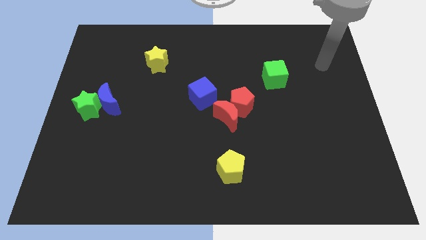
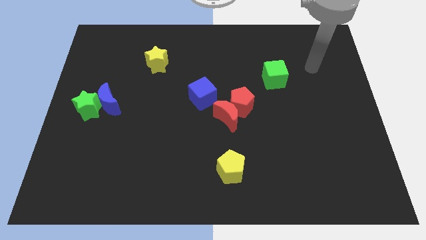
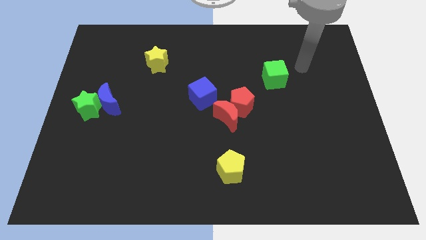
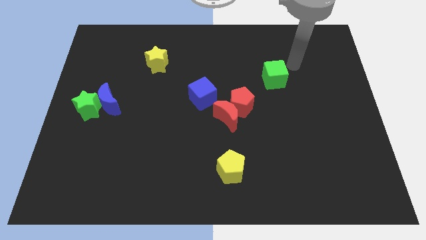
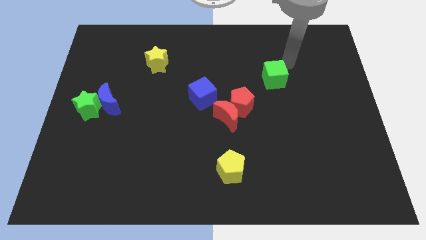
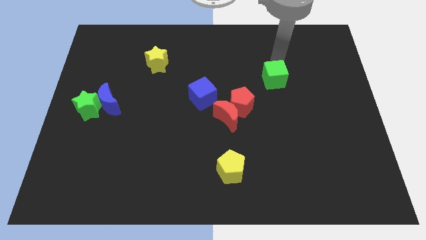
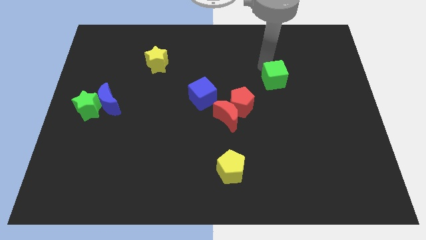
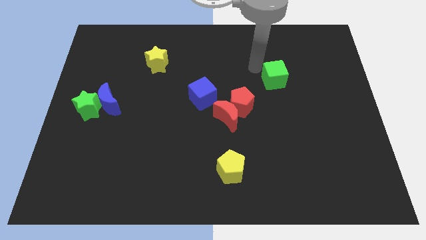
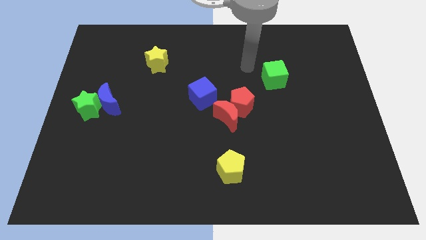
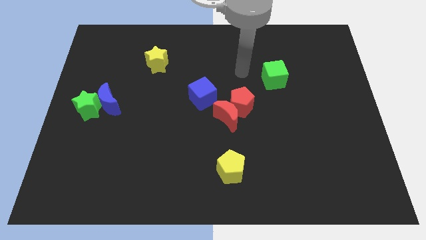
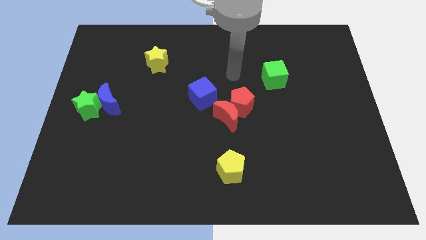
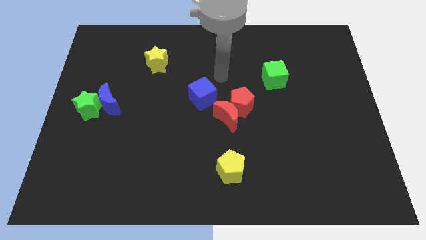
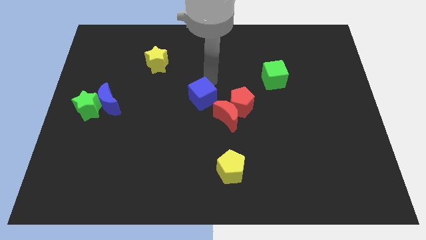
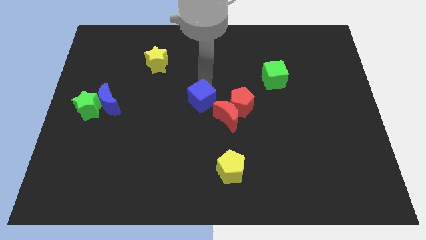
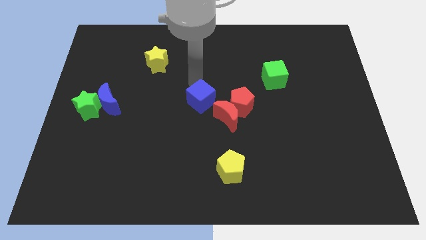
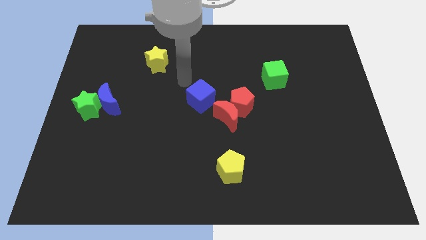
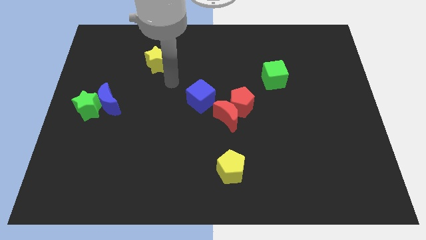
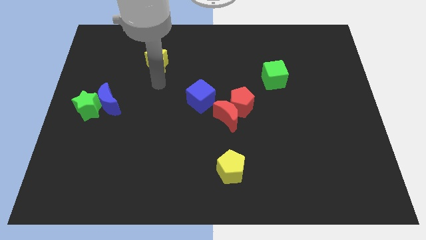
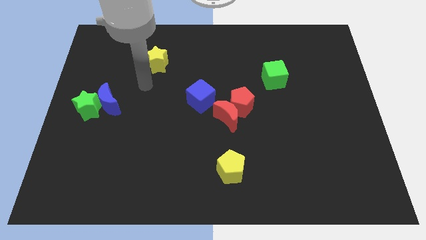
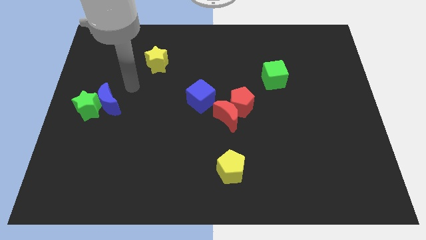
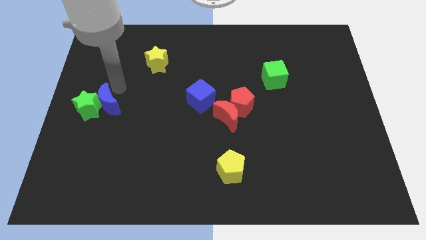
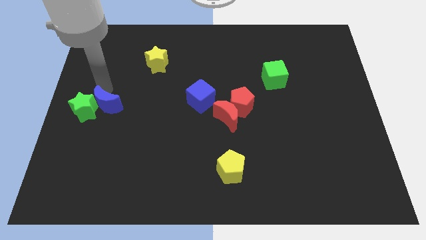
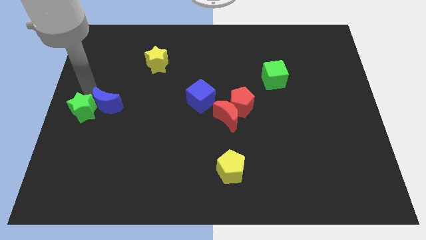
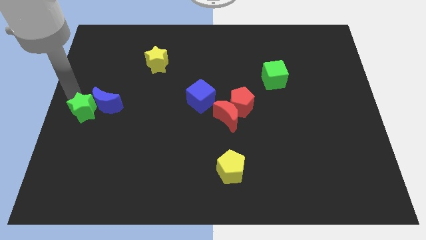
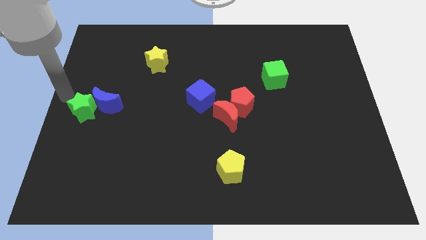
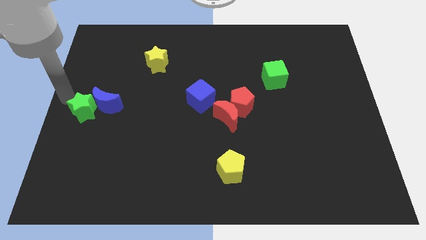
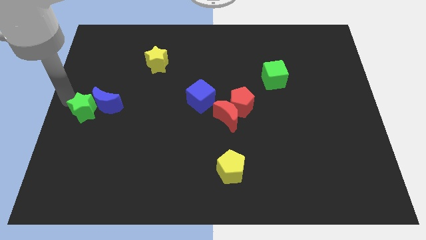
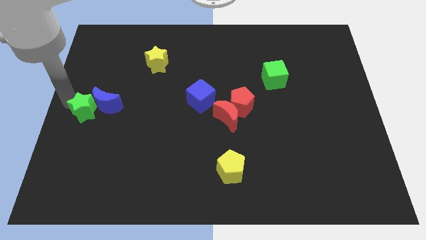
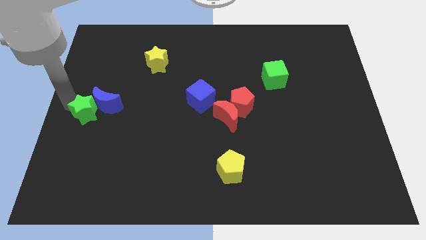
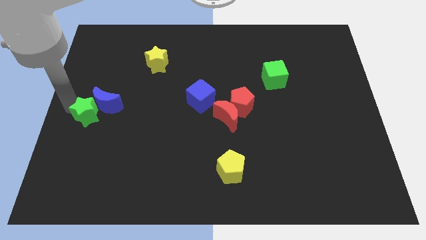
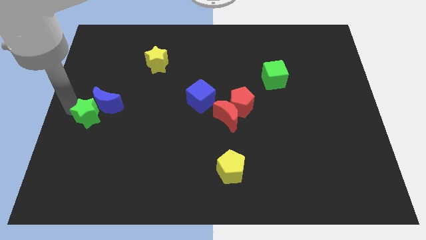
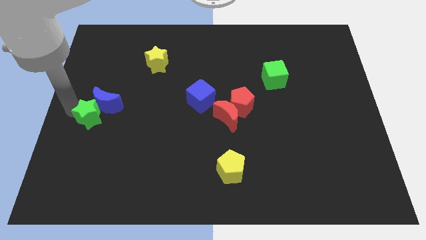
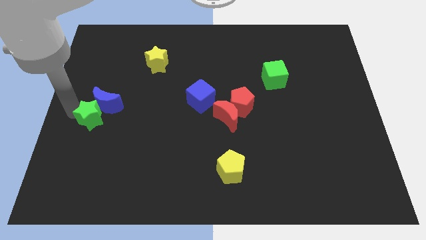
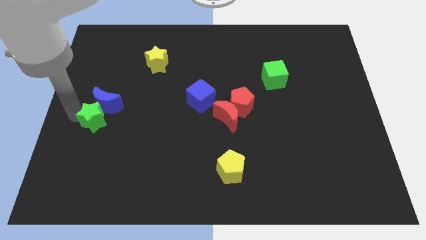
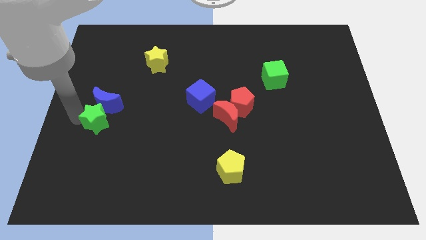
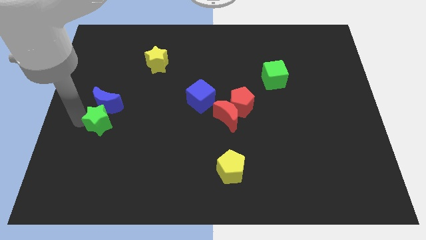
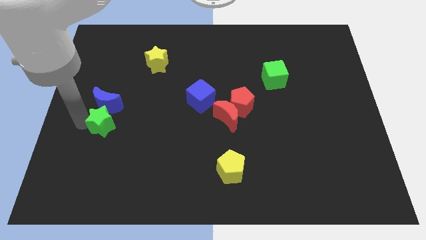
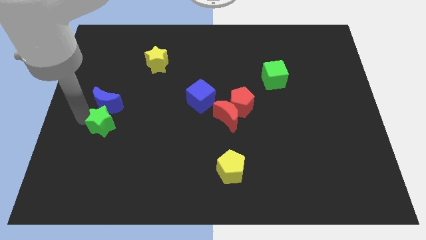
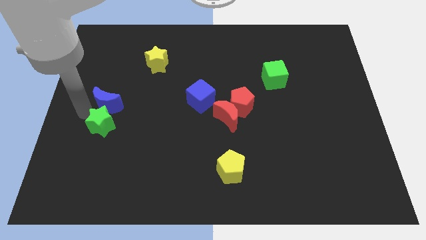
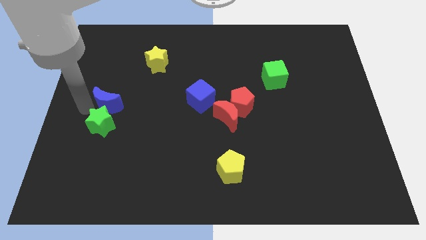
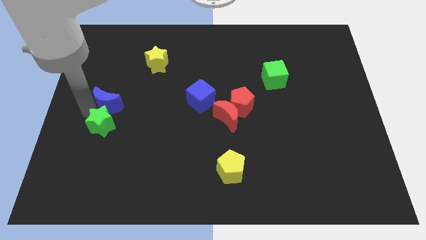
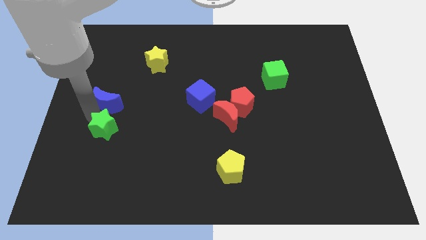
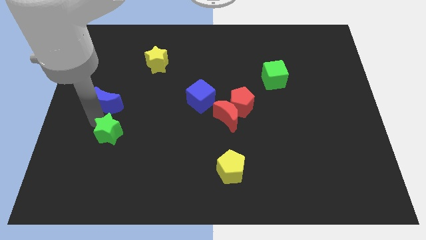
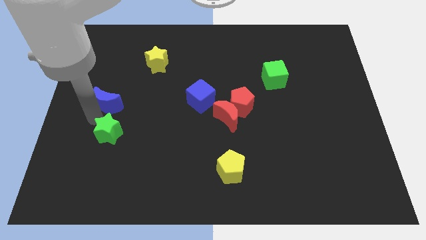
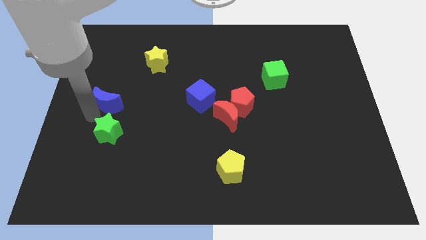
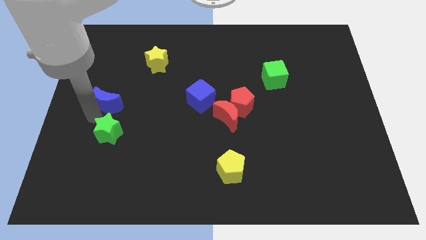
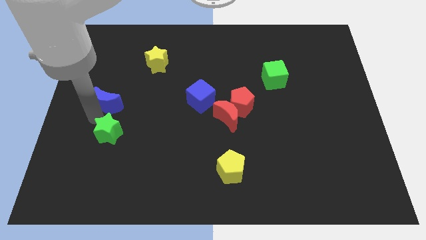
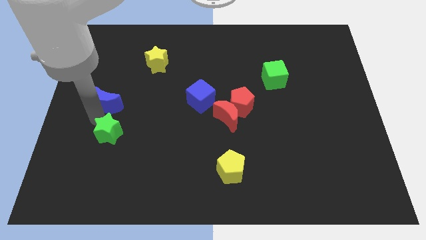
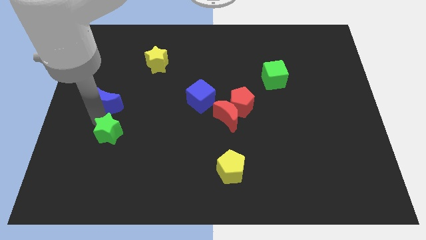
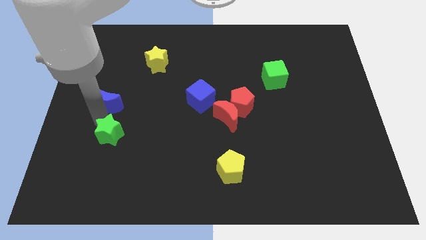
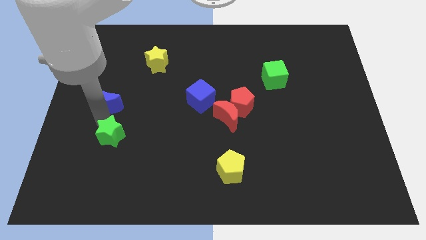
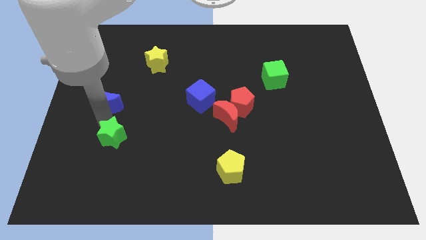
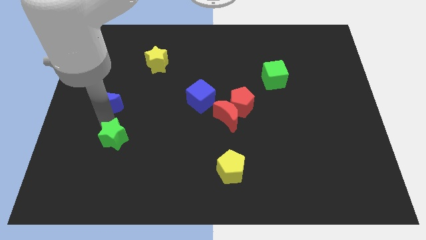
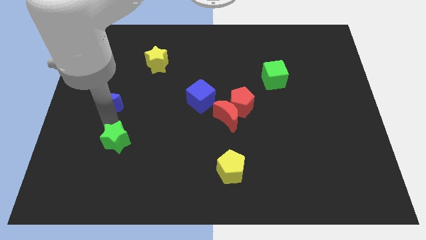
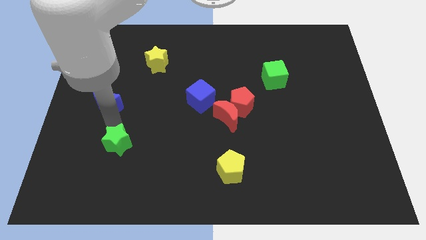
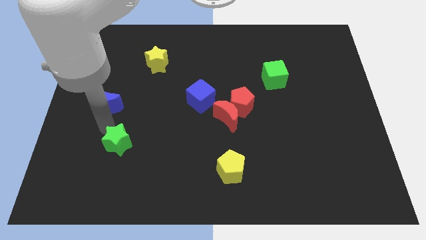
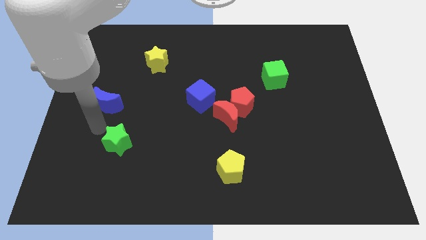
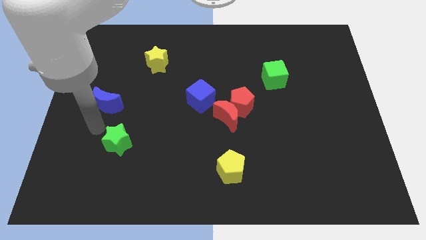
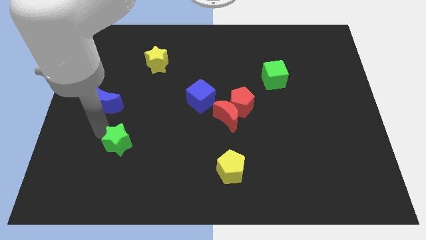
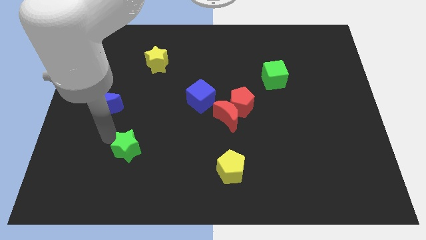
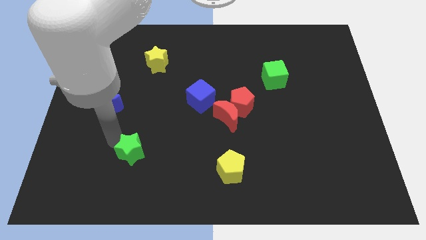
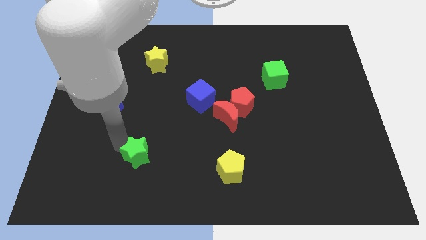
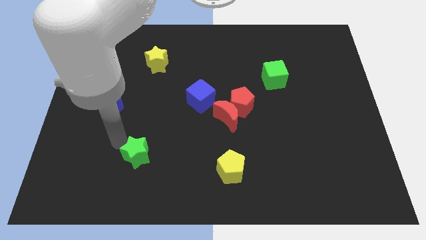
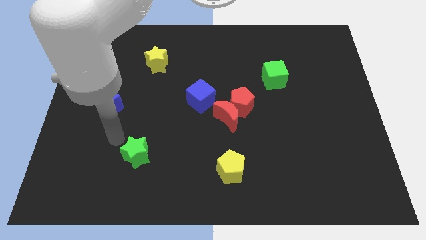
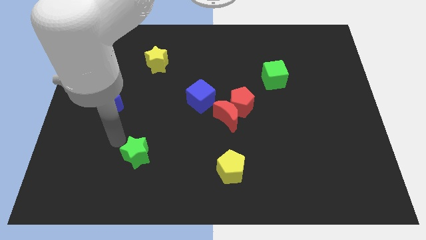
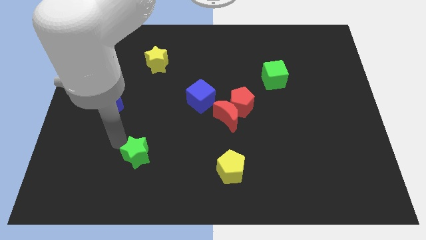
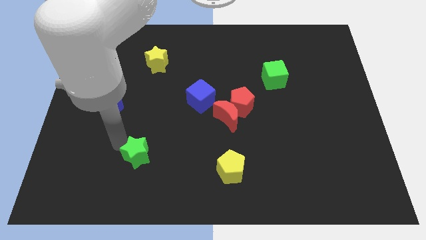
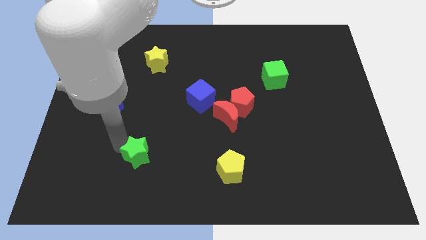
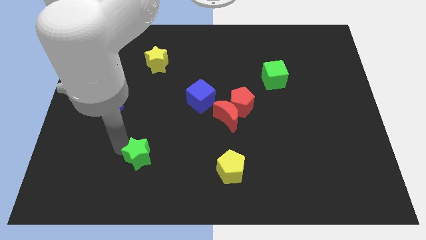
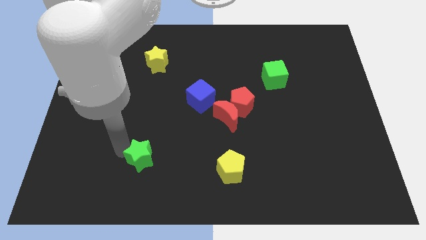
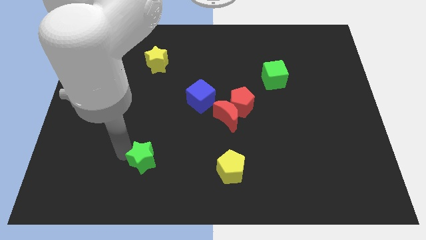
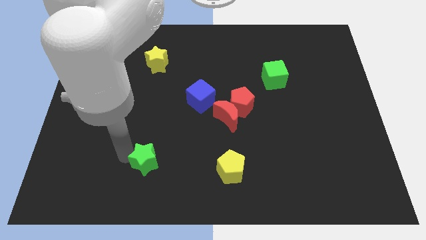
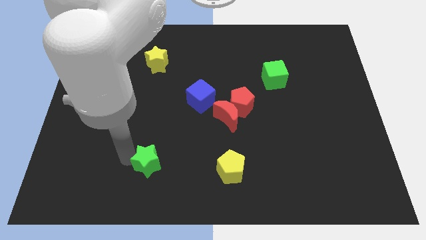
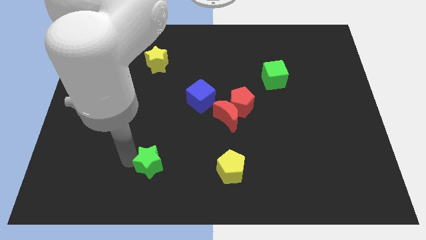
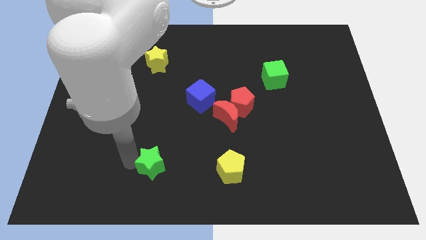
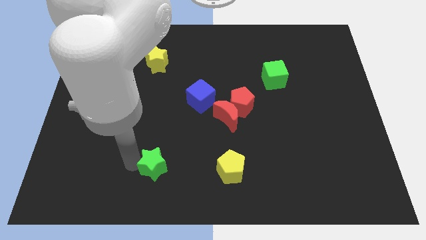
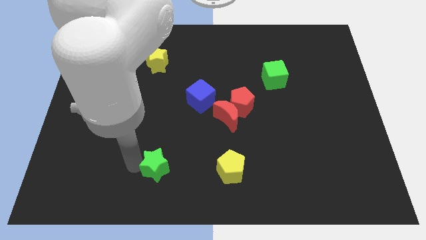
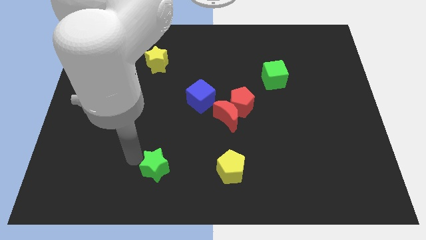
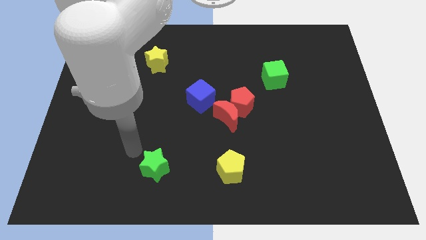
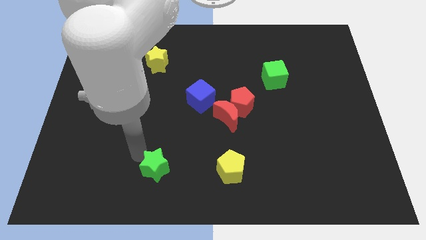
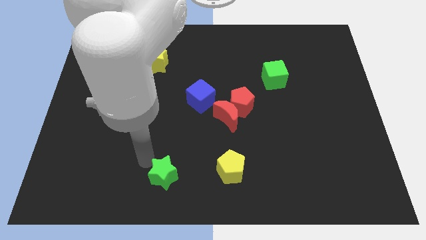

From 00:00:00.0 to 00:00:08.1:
put the green star to the bottom
